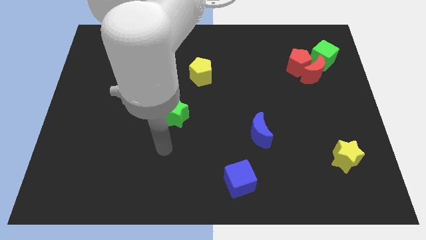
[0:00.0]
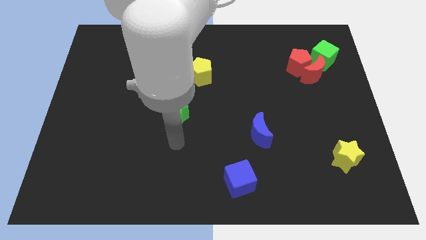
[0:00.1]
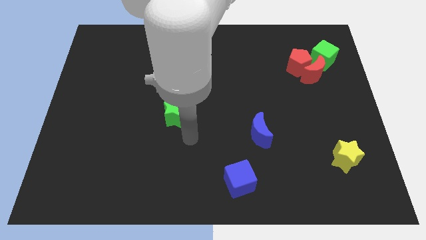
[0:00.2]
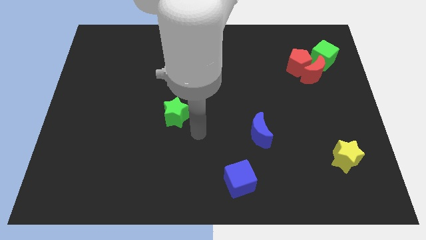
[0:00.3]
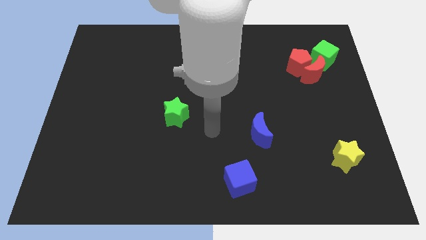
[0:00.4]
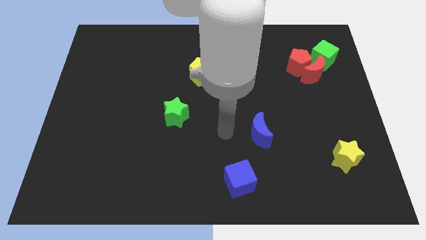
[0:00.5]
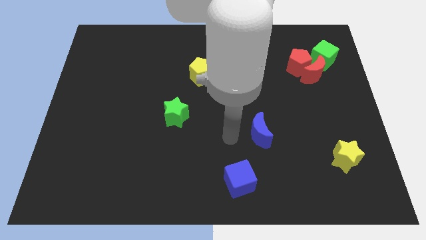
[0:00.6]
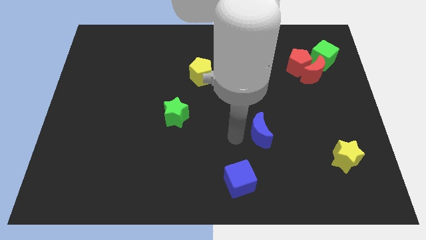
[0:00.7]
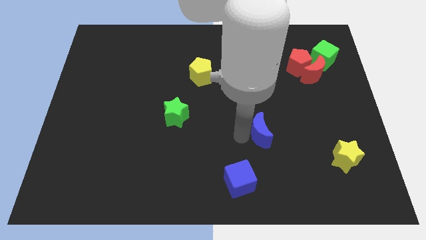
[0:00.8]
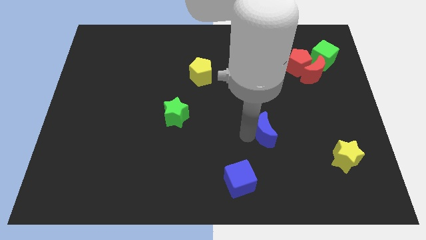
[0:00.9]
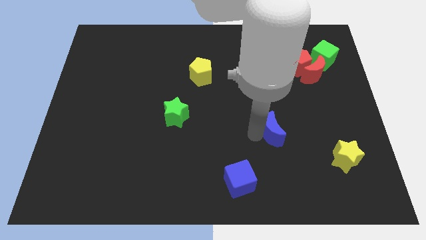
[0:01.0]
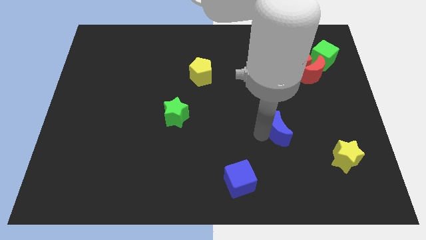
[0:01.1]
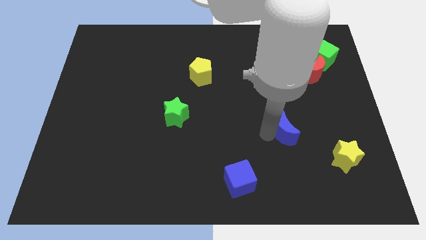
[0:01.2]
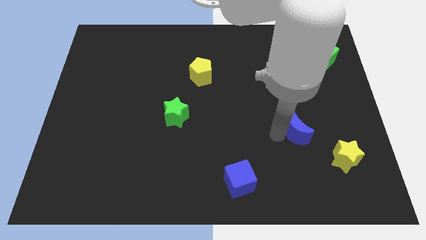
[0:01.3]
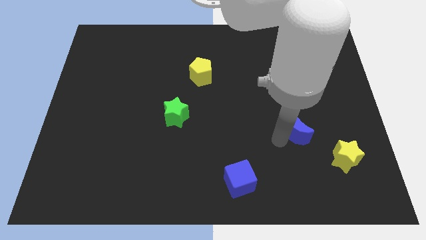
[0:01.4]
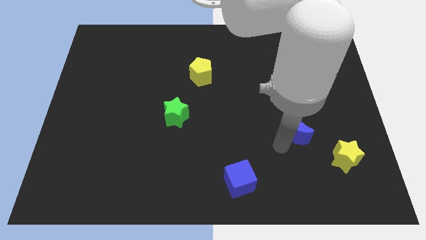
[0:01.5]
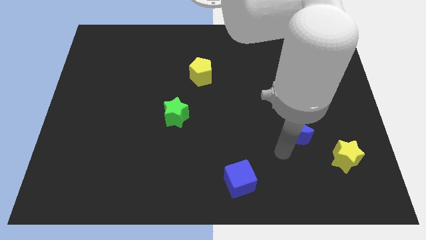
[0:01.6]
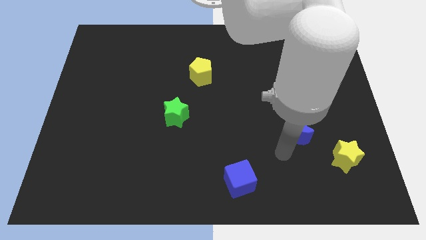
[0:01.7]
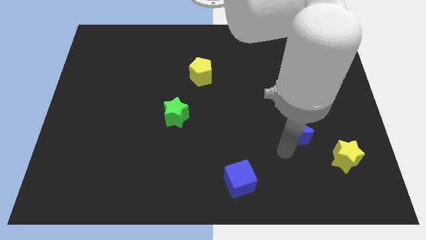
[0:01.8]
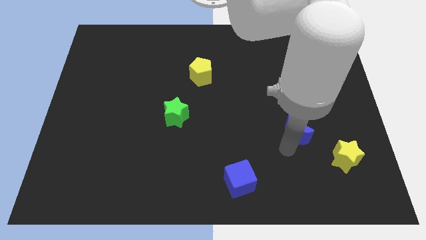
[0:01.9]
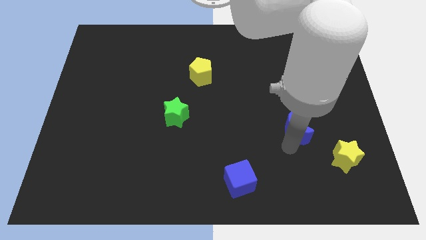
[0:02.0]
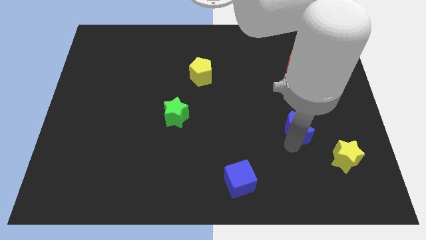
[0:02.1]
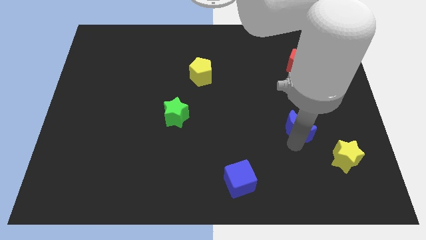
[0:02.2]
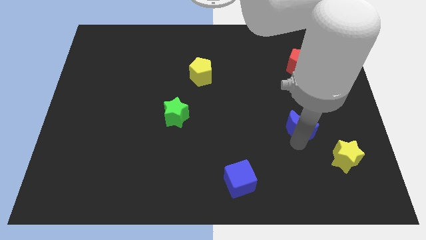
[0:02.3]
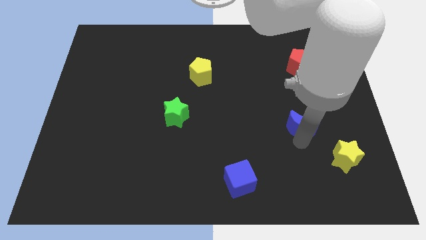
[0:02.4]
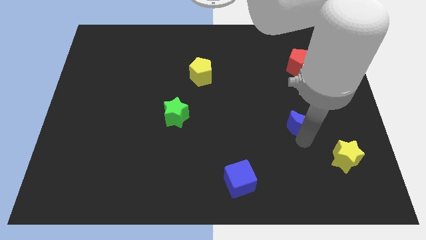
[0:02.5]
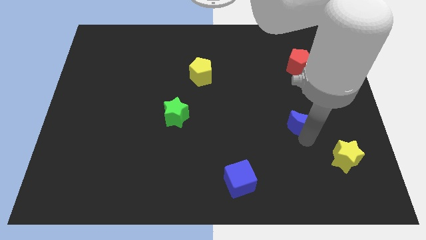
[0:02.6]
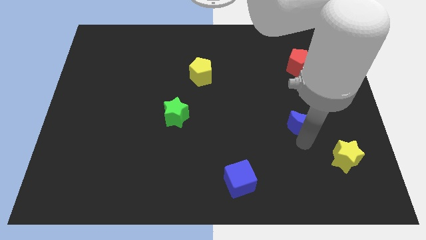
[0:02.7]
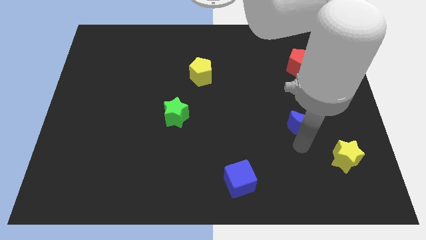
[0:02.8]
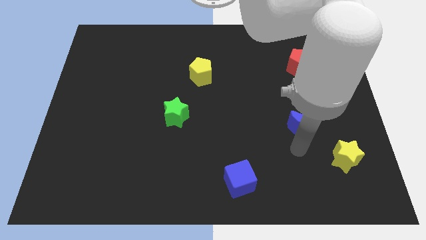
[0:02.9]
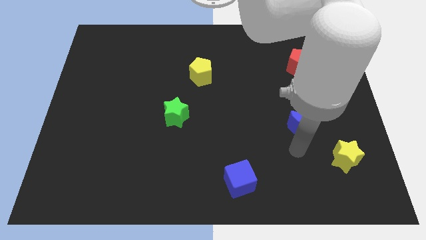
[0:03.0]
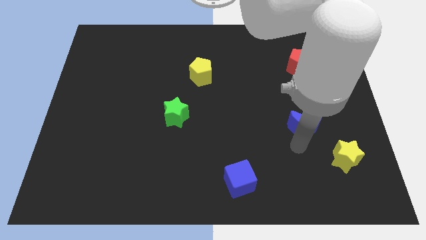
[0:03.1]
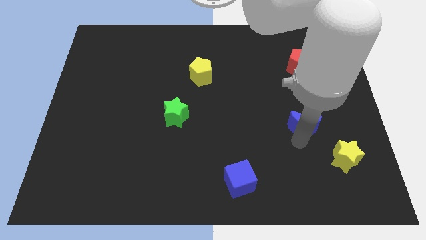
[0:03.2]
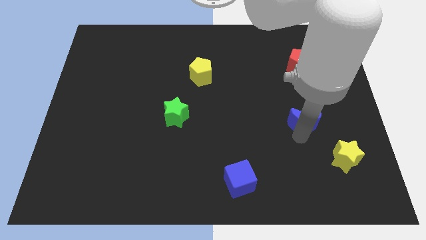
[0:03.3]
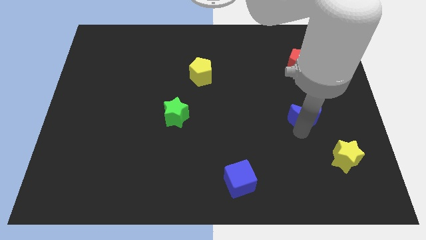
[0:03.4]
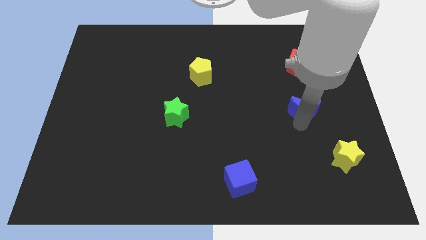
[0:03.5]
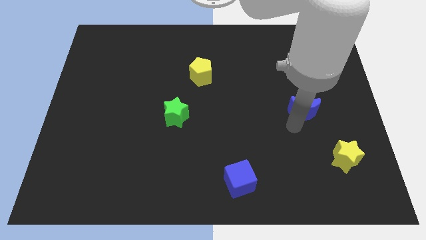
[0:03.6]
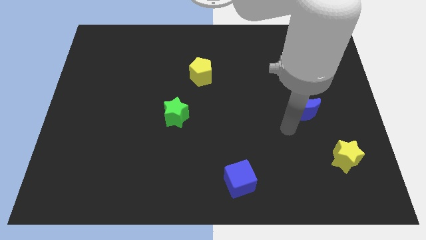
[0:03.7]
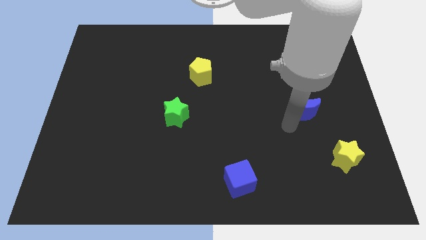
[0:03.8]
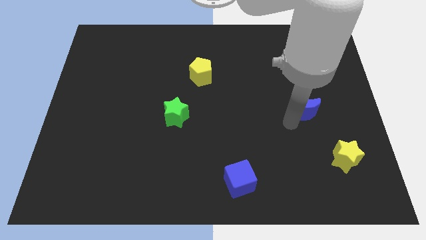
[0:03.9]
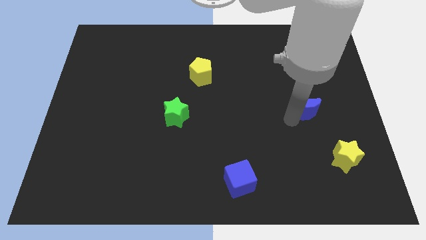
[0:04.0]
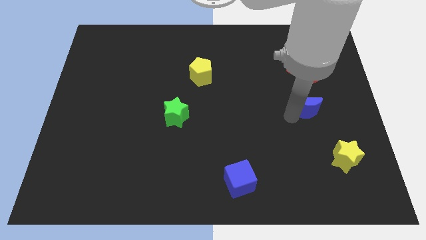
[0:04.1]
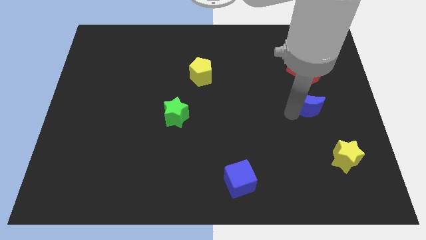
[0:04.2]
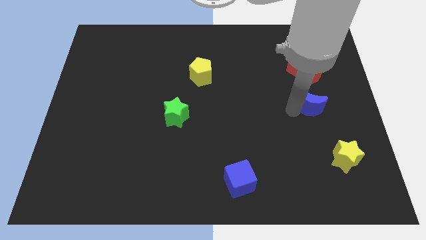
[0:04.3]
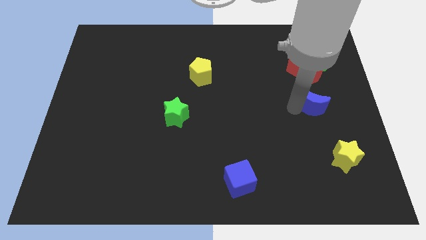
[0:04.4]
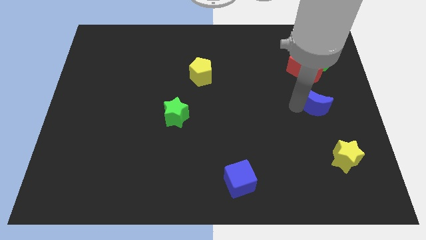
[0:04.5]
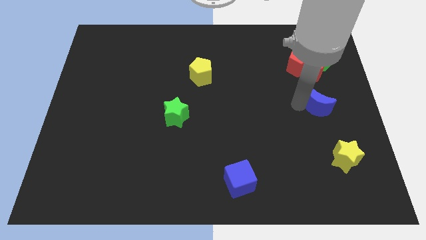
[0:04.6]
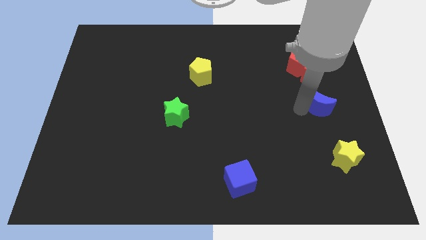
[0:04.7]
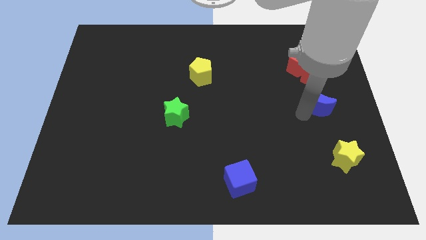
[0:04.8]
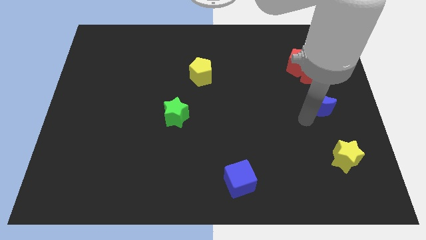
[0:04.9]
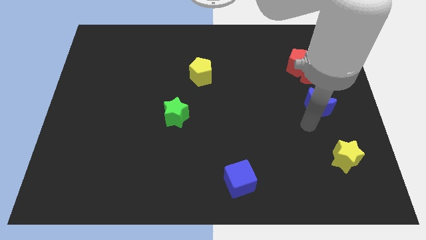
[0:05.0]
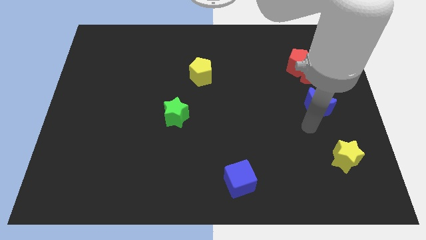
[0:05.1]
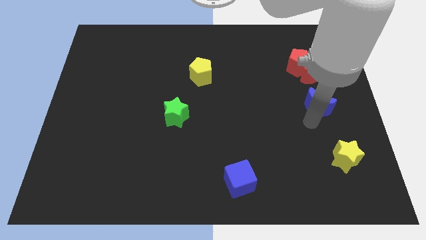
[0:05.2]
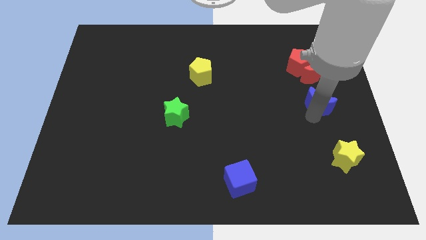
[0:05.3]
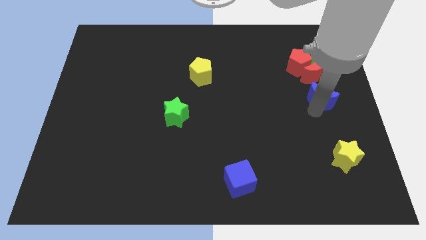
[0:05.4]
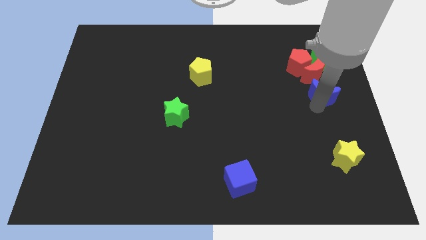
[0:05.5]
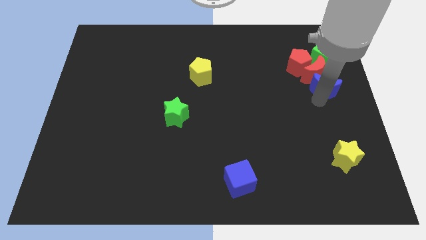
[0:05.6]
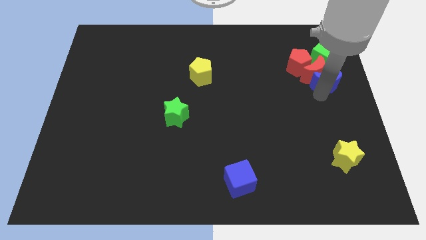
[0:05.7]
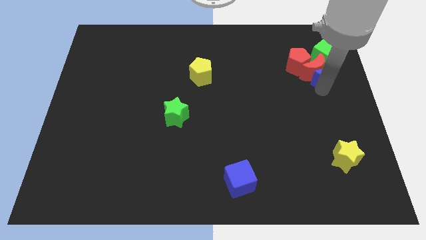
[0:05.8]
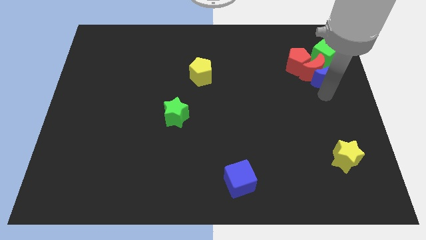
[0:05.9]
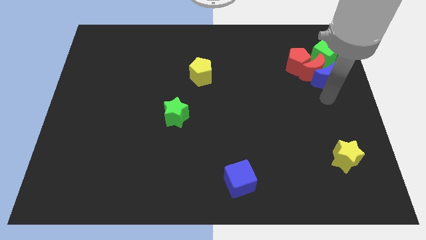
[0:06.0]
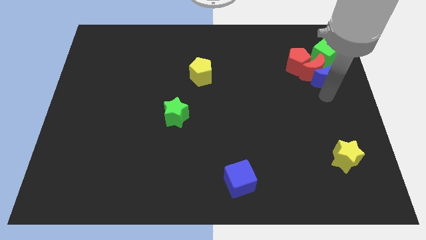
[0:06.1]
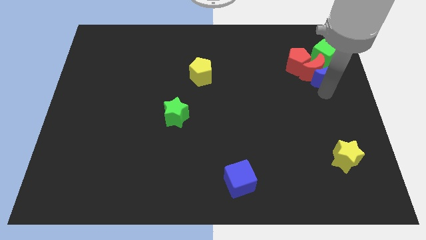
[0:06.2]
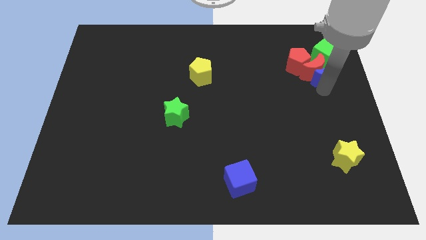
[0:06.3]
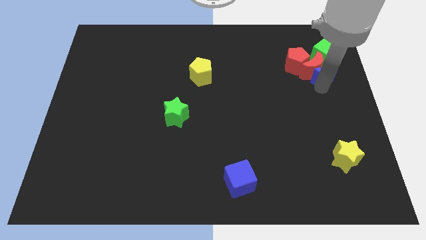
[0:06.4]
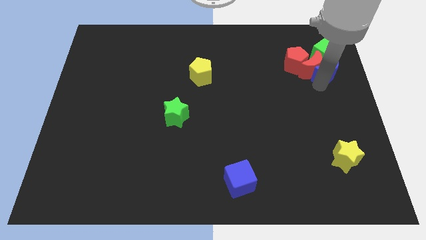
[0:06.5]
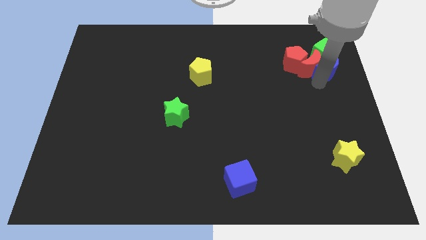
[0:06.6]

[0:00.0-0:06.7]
push the blue moon towards the green cube
